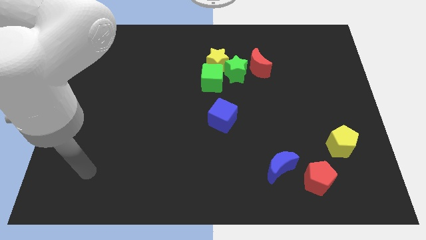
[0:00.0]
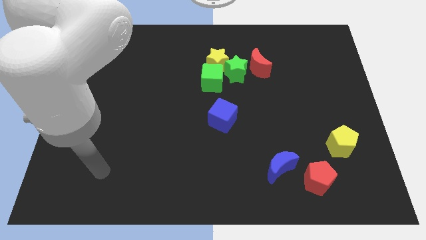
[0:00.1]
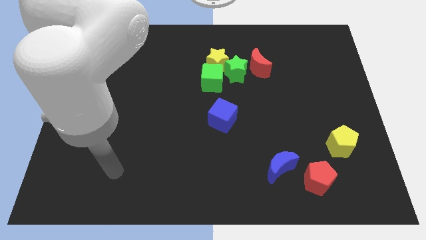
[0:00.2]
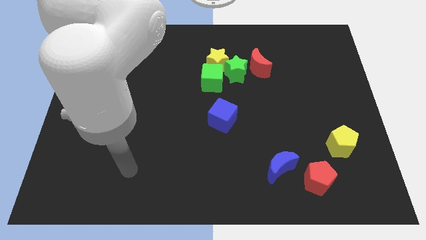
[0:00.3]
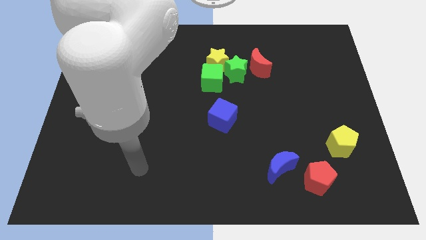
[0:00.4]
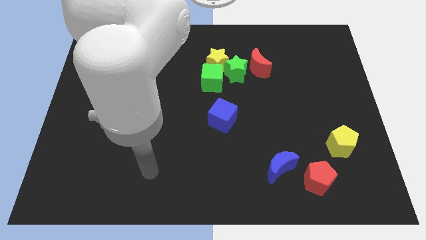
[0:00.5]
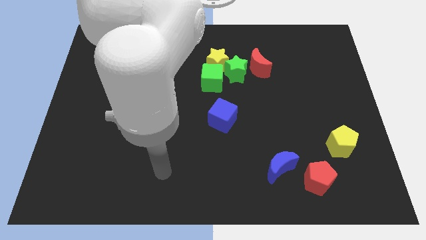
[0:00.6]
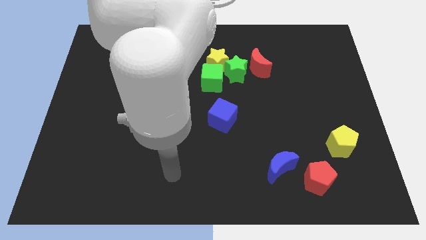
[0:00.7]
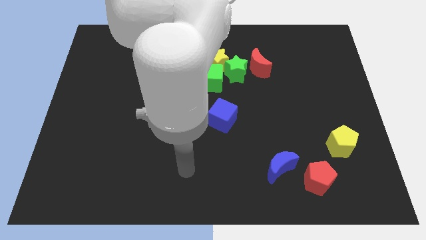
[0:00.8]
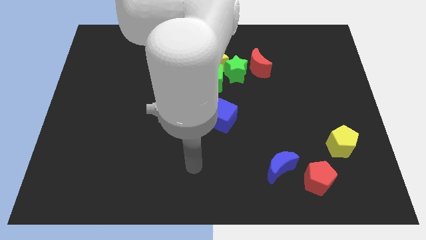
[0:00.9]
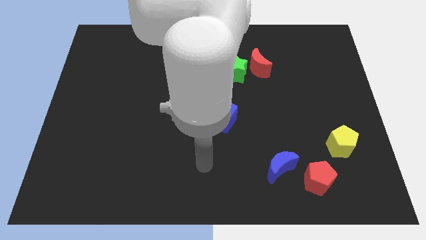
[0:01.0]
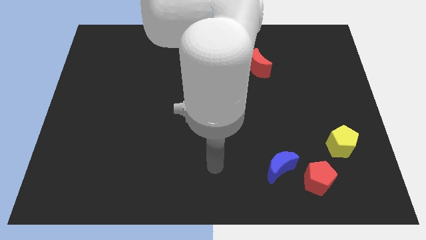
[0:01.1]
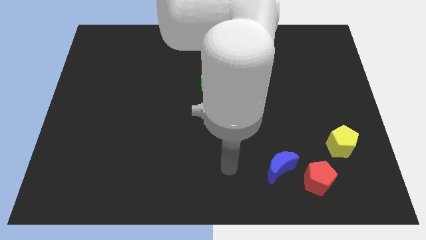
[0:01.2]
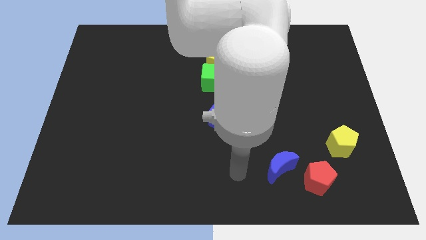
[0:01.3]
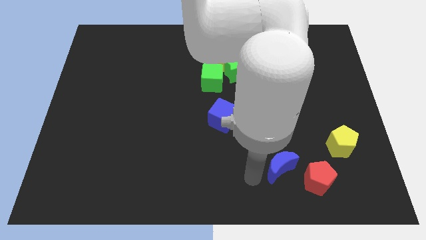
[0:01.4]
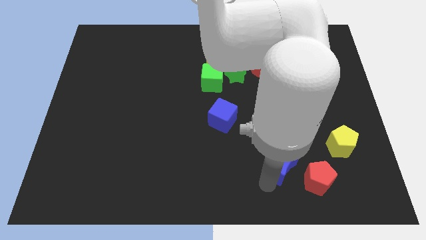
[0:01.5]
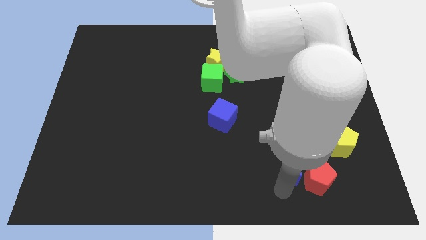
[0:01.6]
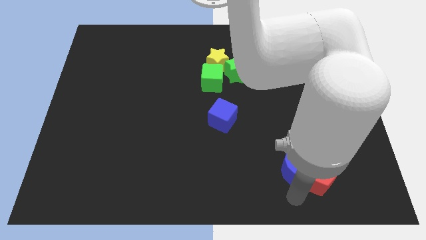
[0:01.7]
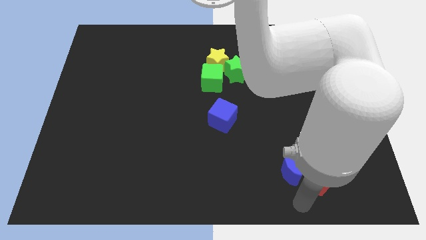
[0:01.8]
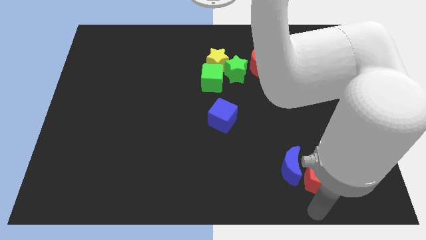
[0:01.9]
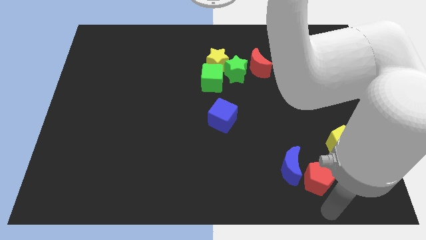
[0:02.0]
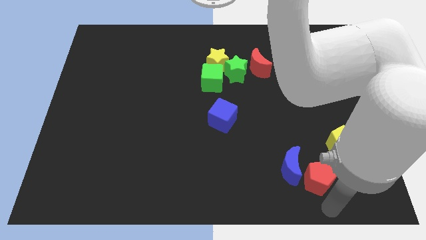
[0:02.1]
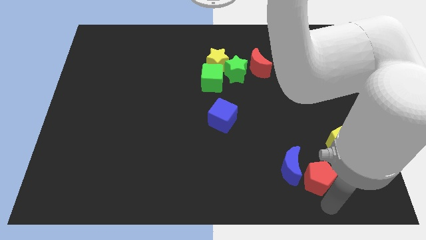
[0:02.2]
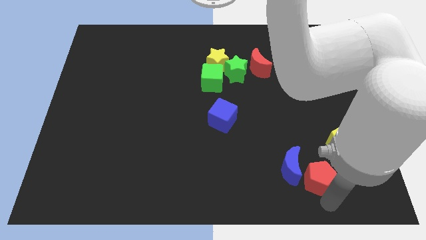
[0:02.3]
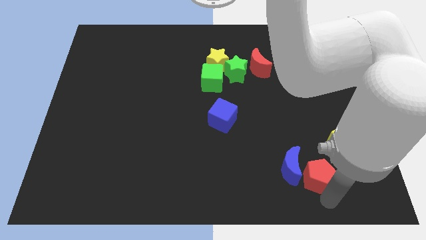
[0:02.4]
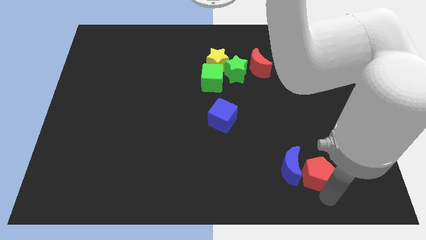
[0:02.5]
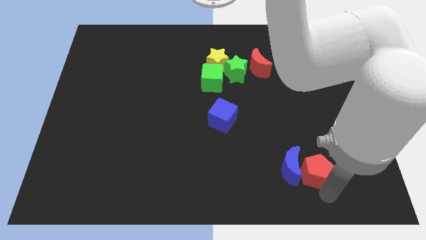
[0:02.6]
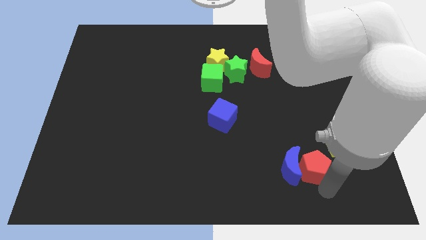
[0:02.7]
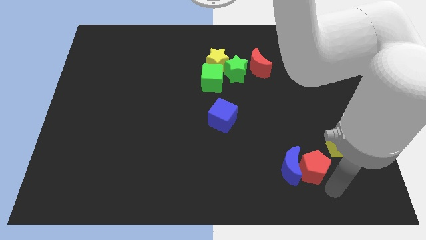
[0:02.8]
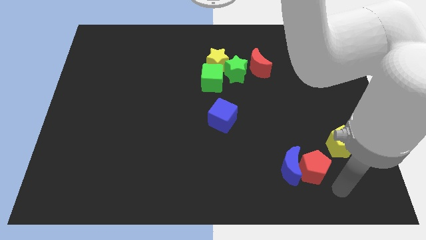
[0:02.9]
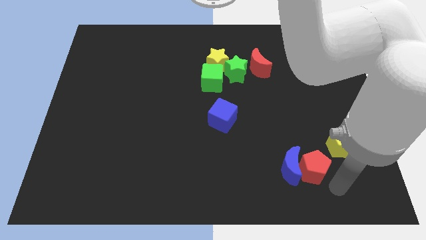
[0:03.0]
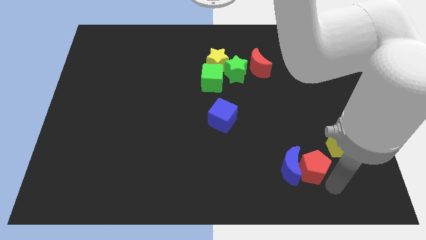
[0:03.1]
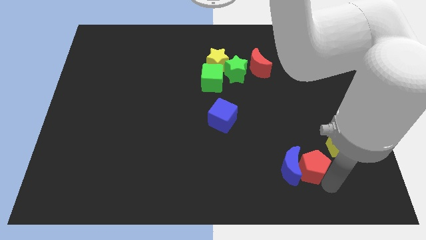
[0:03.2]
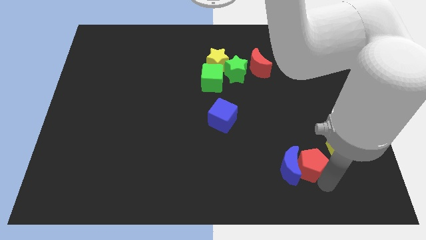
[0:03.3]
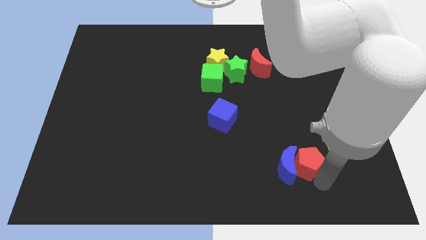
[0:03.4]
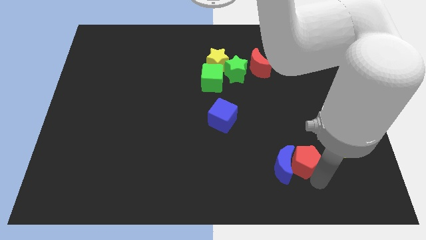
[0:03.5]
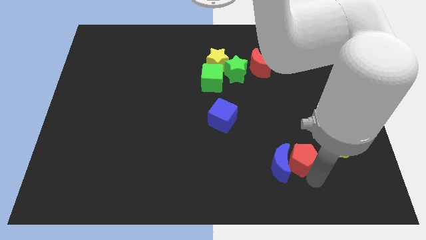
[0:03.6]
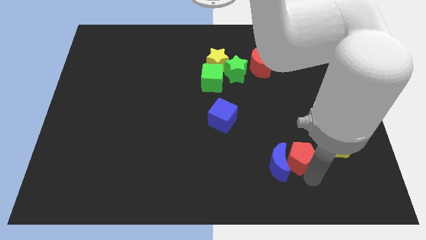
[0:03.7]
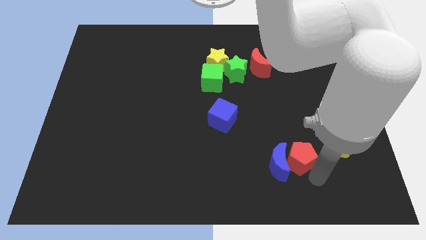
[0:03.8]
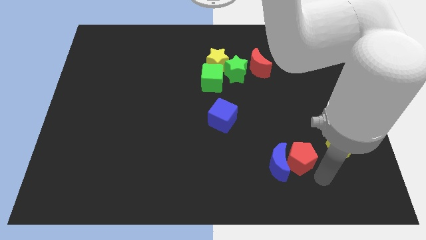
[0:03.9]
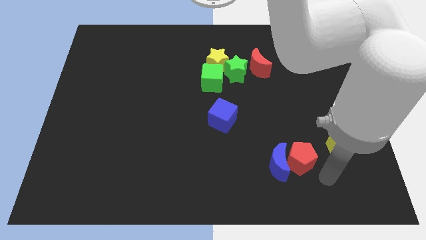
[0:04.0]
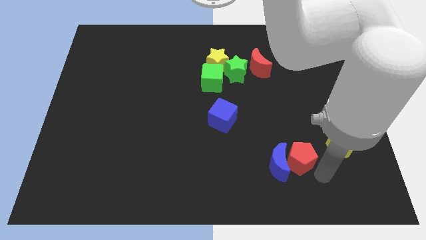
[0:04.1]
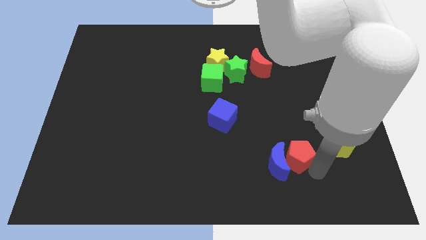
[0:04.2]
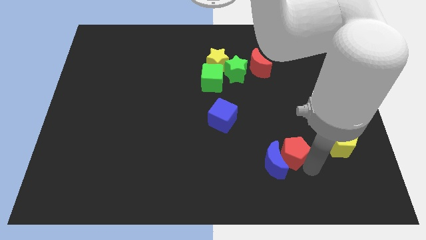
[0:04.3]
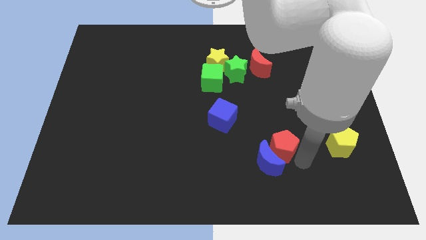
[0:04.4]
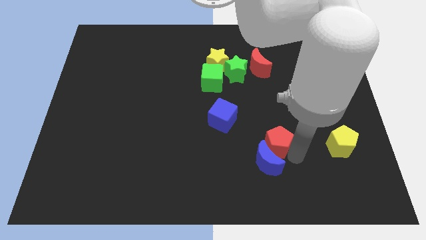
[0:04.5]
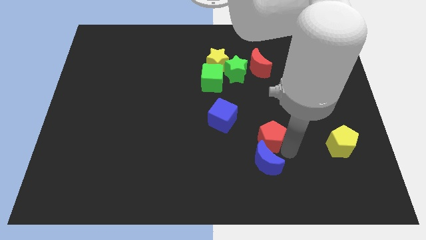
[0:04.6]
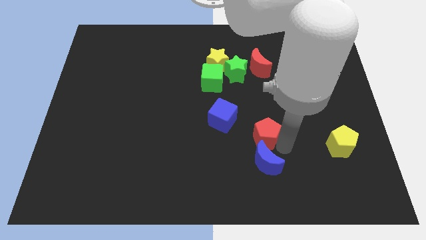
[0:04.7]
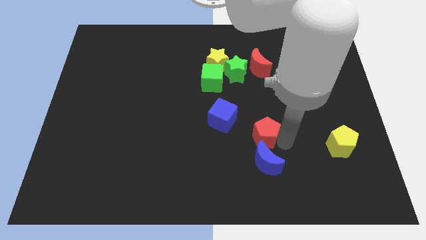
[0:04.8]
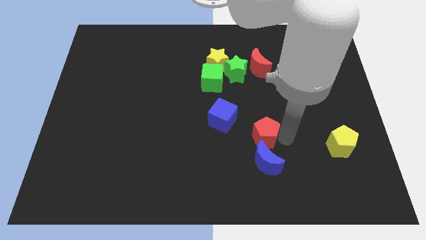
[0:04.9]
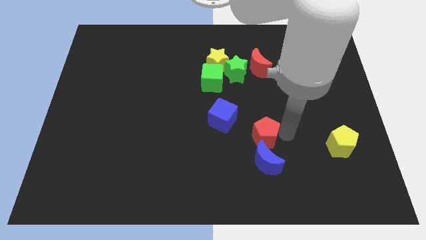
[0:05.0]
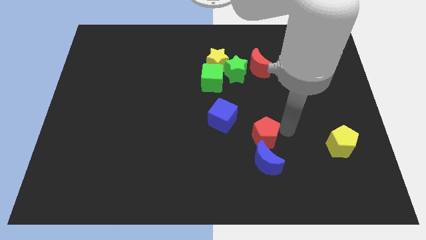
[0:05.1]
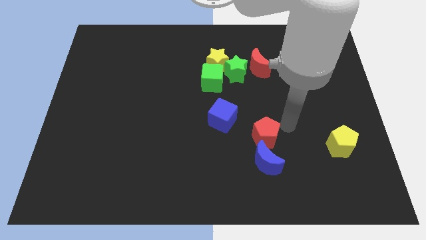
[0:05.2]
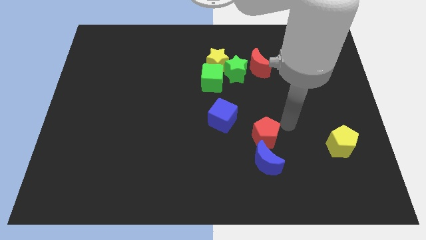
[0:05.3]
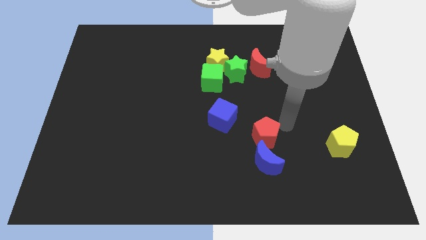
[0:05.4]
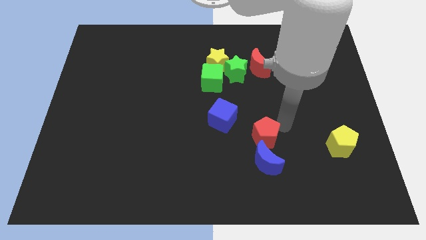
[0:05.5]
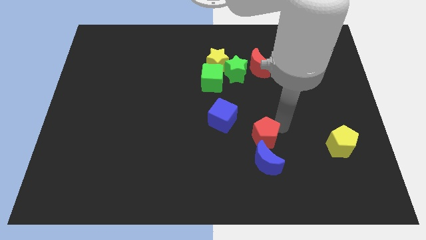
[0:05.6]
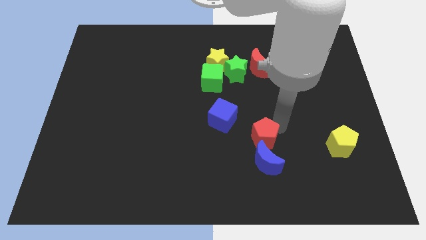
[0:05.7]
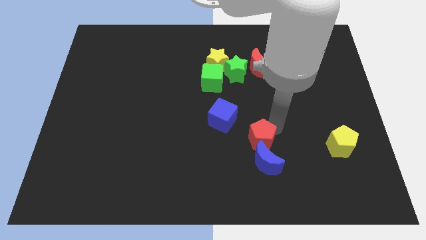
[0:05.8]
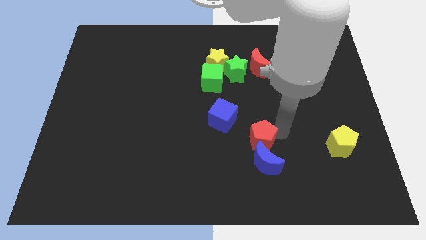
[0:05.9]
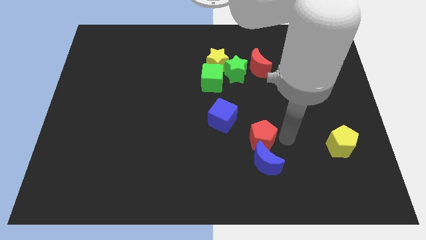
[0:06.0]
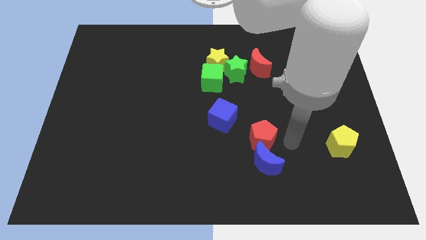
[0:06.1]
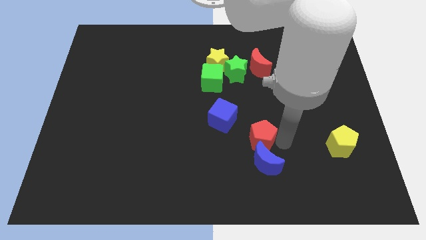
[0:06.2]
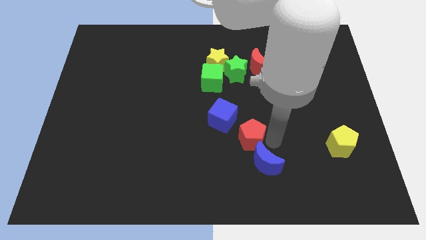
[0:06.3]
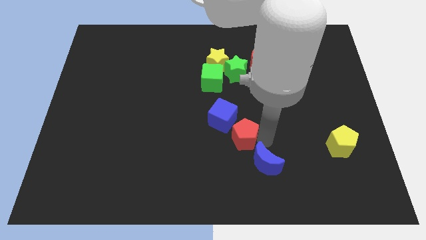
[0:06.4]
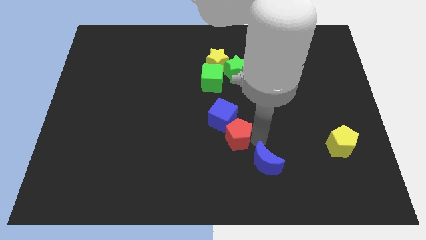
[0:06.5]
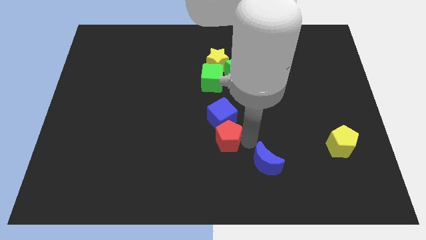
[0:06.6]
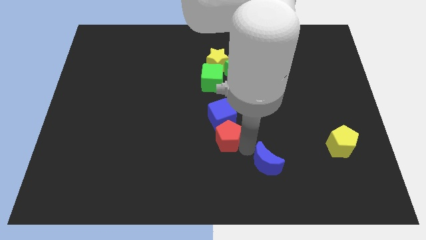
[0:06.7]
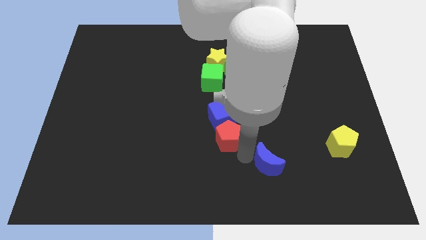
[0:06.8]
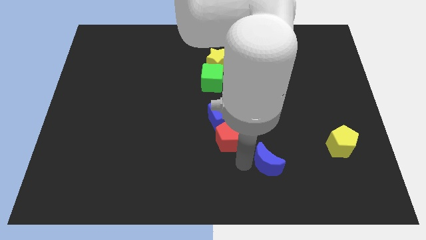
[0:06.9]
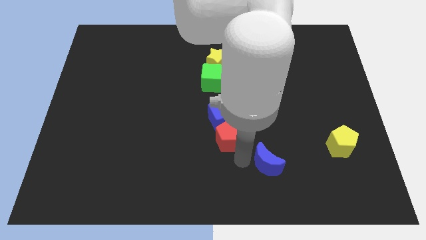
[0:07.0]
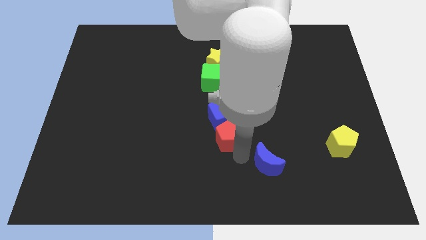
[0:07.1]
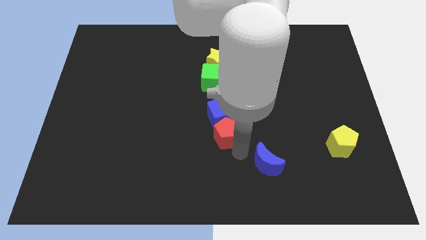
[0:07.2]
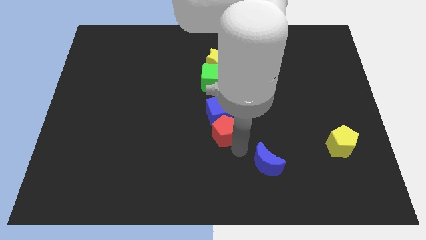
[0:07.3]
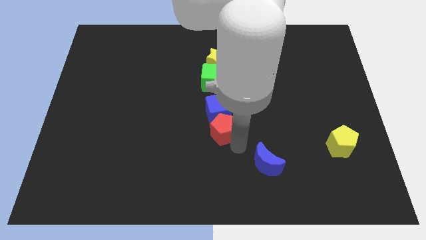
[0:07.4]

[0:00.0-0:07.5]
move the red pentagon to the bottom side of the green cube

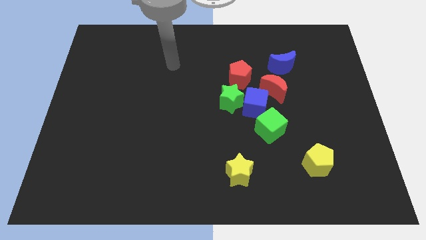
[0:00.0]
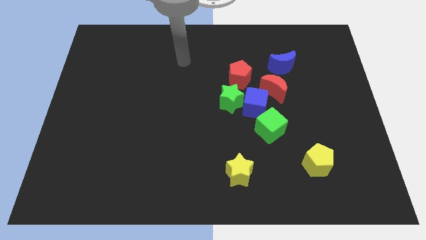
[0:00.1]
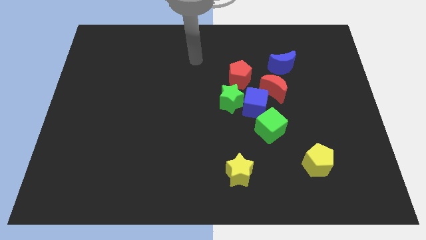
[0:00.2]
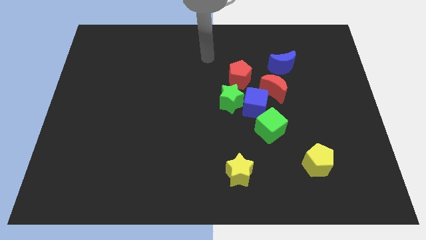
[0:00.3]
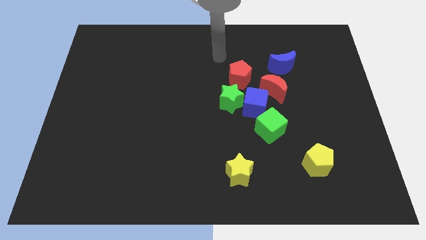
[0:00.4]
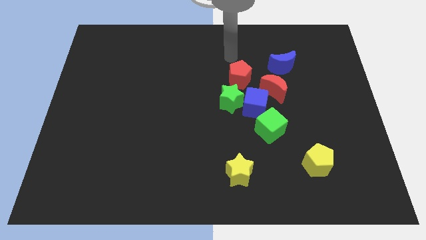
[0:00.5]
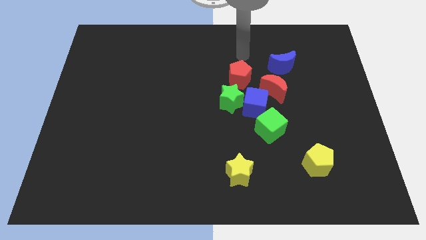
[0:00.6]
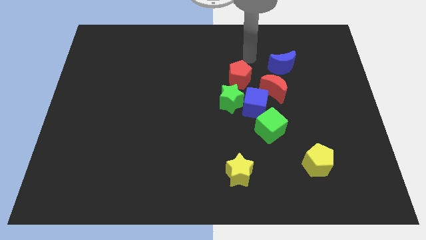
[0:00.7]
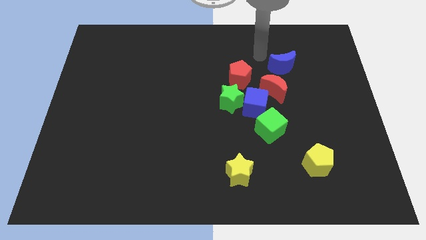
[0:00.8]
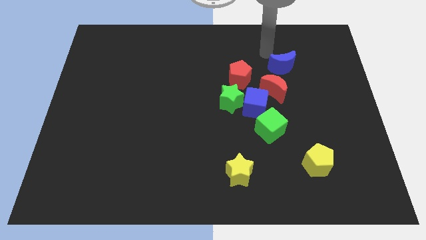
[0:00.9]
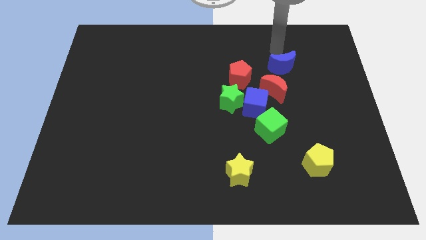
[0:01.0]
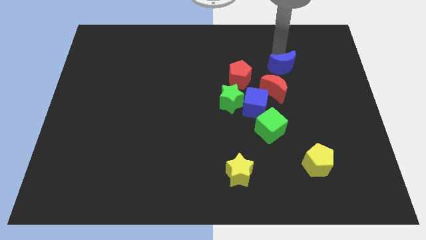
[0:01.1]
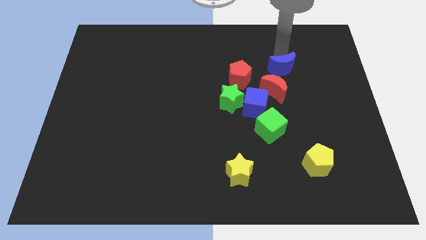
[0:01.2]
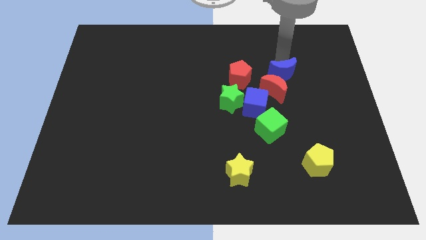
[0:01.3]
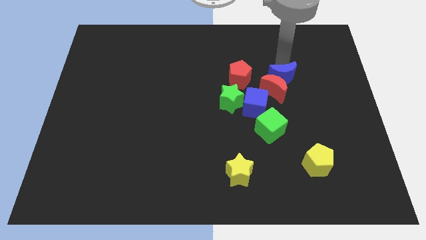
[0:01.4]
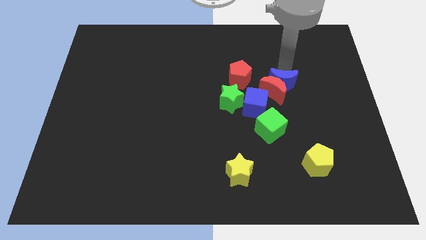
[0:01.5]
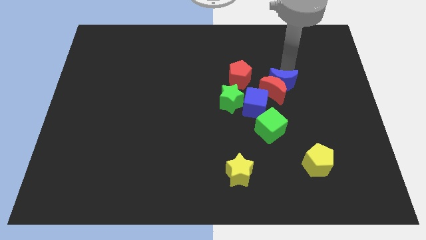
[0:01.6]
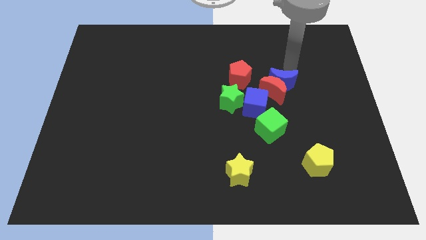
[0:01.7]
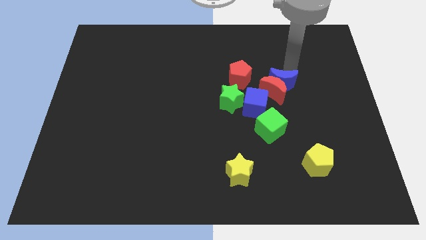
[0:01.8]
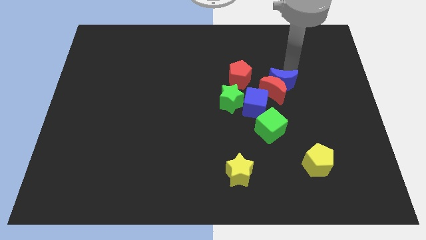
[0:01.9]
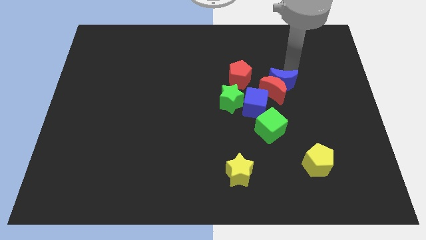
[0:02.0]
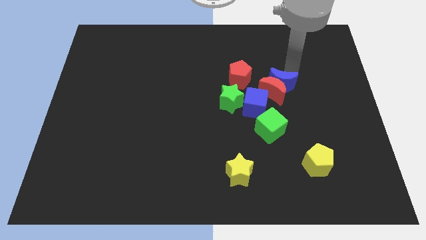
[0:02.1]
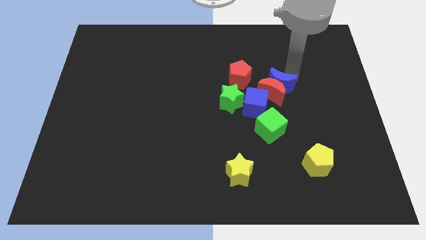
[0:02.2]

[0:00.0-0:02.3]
slide the blue moon to the right of the green star
